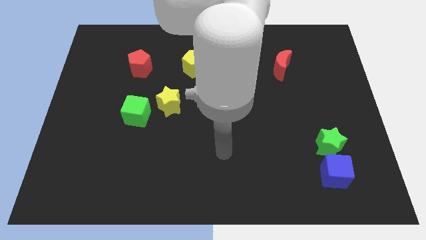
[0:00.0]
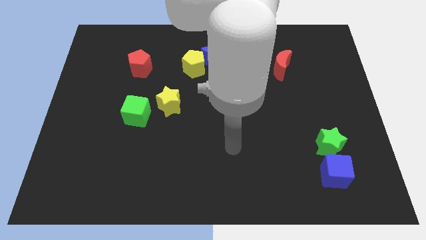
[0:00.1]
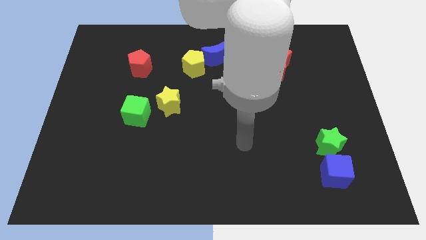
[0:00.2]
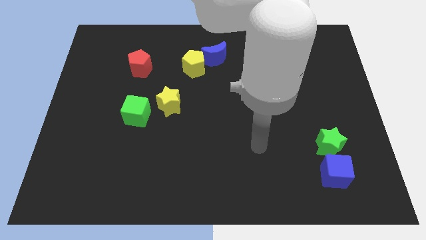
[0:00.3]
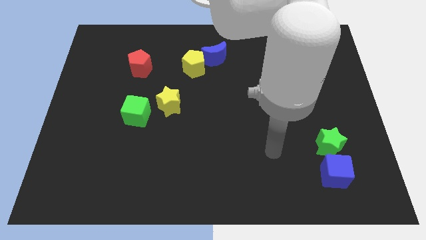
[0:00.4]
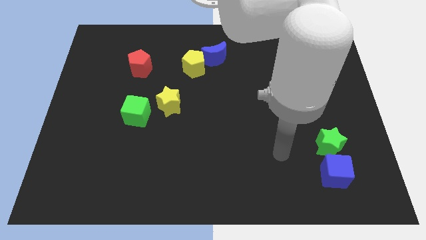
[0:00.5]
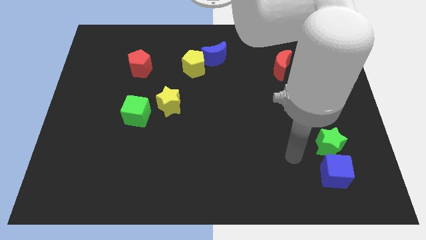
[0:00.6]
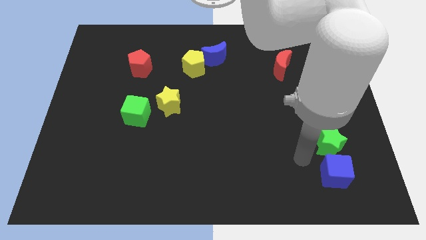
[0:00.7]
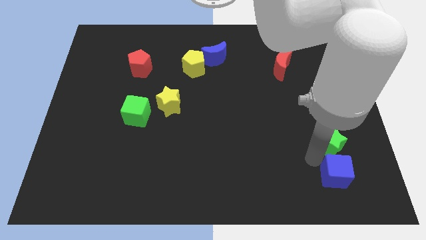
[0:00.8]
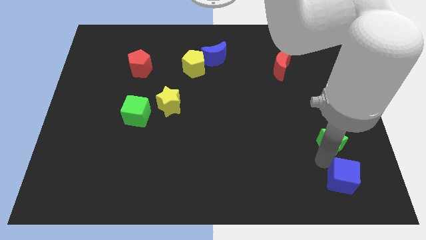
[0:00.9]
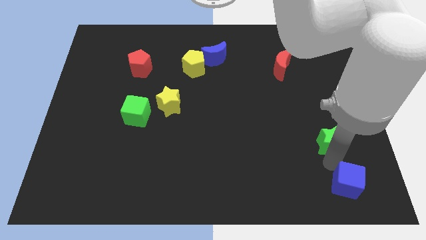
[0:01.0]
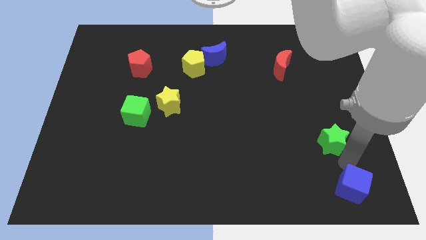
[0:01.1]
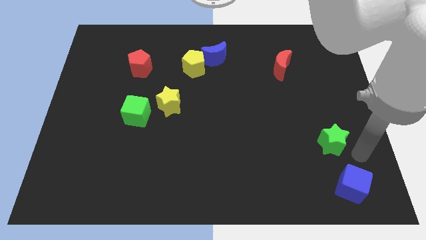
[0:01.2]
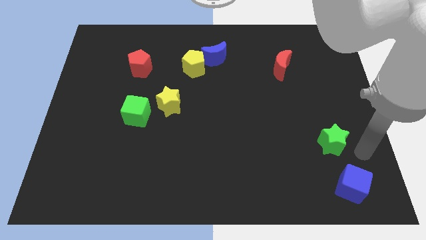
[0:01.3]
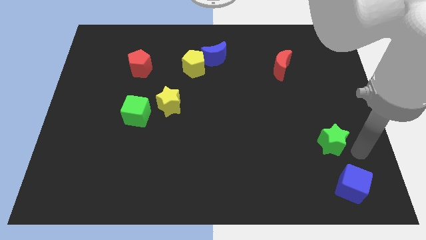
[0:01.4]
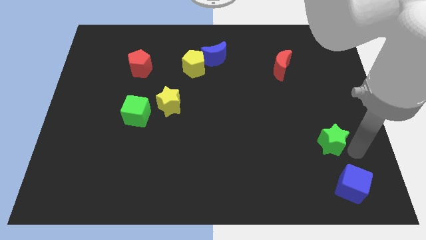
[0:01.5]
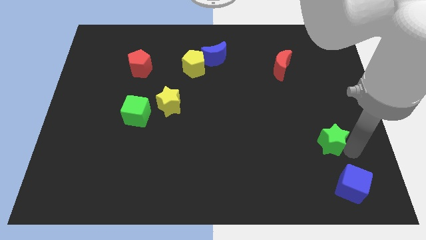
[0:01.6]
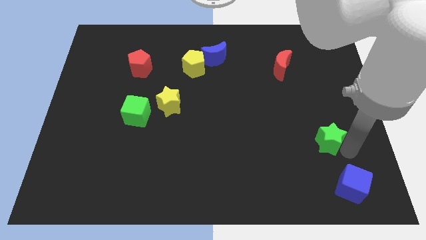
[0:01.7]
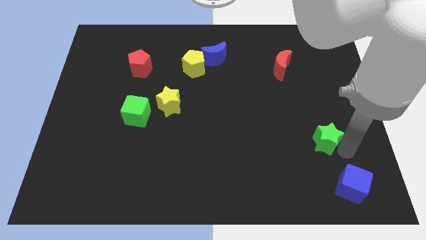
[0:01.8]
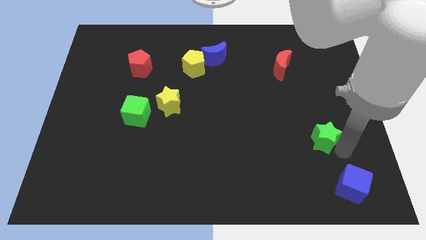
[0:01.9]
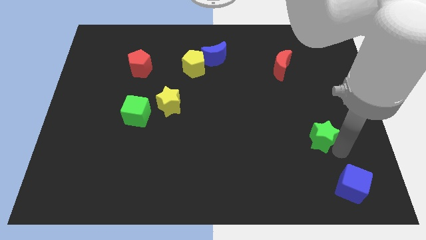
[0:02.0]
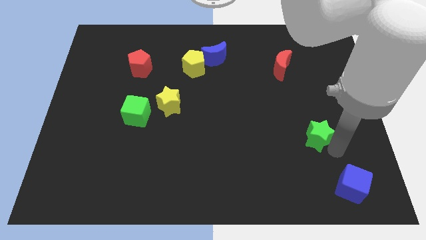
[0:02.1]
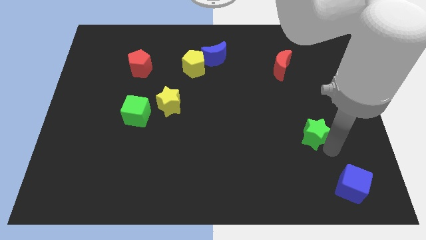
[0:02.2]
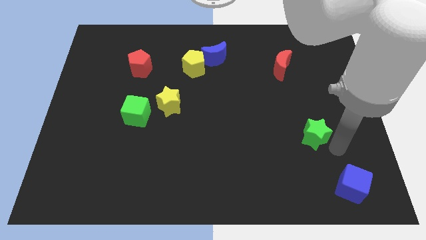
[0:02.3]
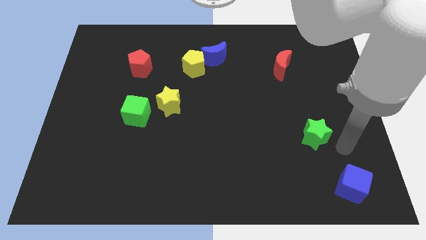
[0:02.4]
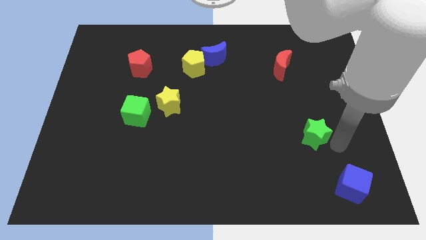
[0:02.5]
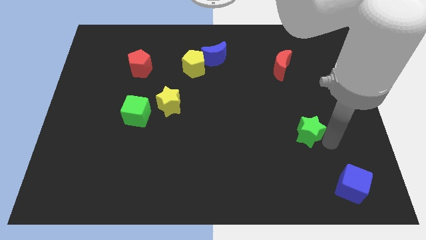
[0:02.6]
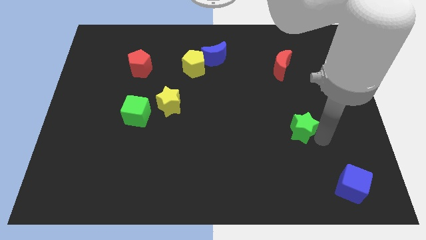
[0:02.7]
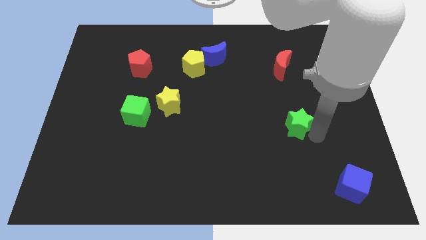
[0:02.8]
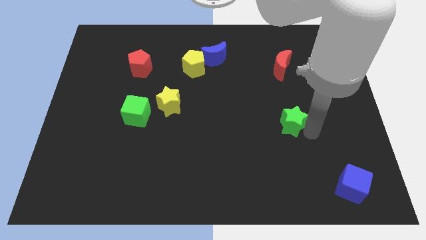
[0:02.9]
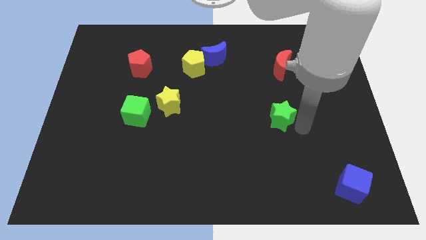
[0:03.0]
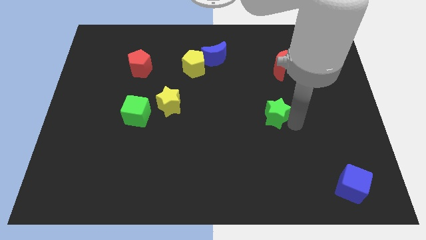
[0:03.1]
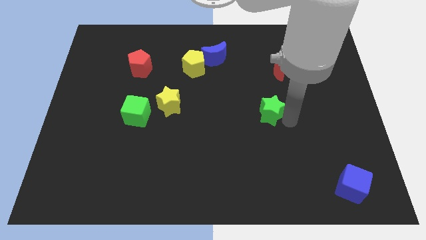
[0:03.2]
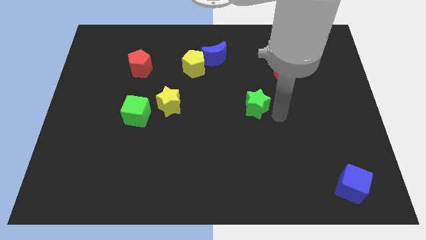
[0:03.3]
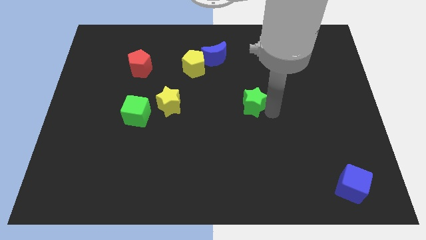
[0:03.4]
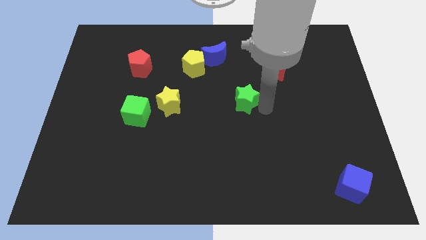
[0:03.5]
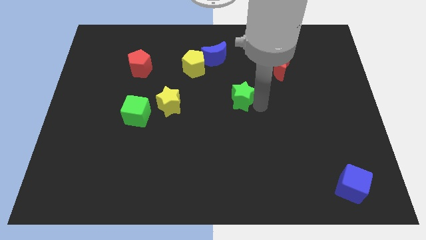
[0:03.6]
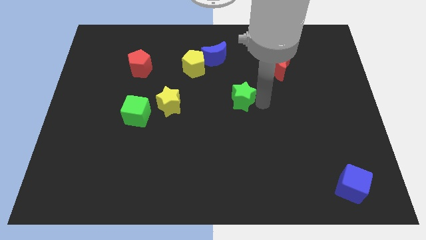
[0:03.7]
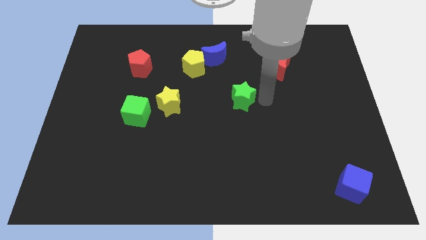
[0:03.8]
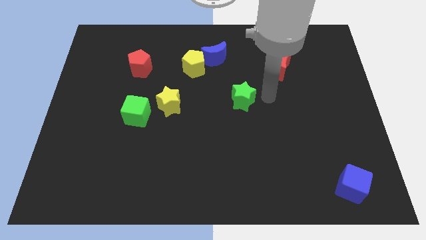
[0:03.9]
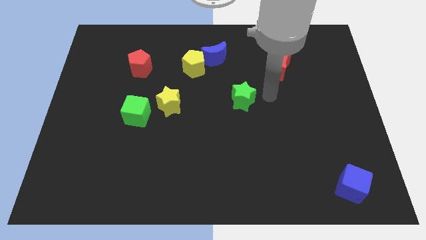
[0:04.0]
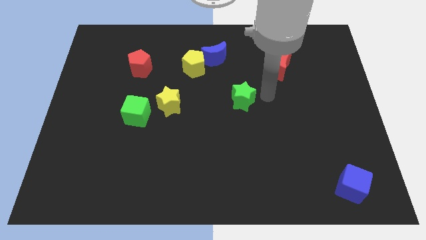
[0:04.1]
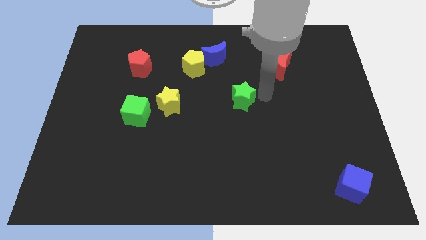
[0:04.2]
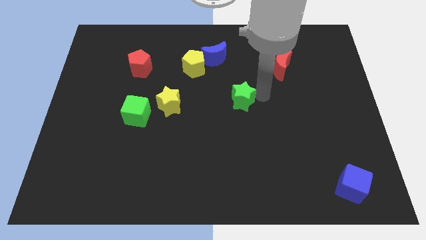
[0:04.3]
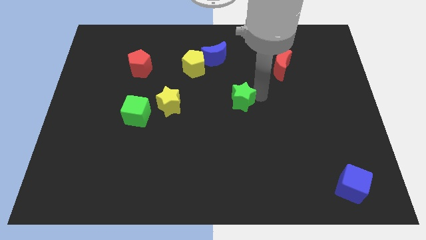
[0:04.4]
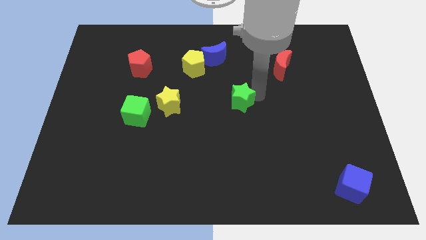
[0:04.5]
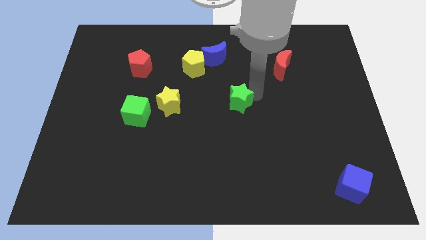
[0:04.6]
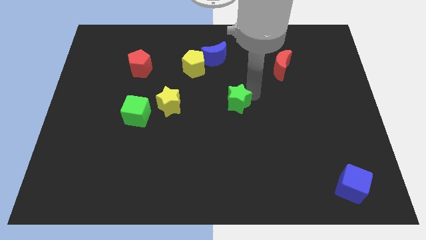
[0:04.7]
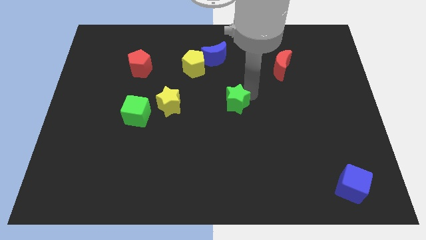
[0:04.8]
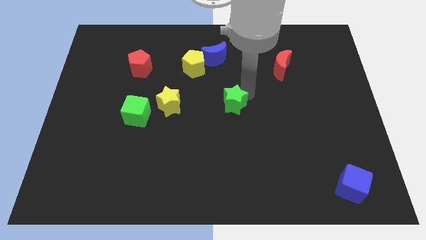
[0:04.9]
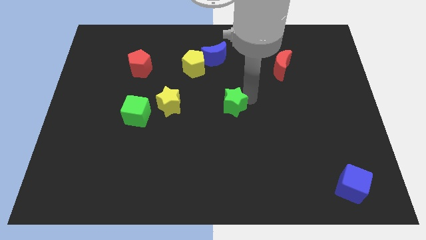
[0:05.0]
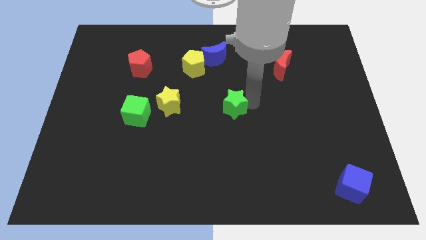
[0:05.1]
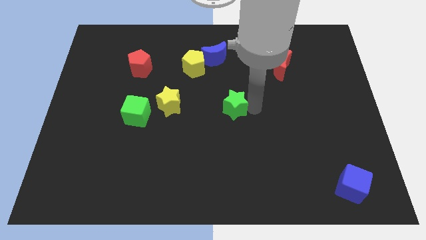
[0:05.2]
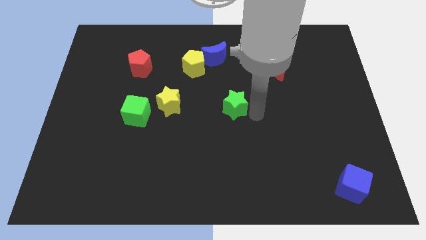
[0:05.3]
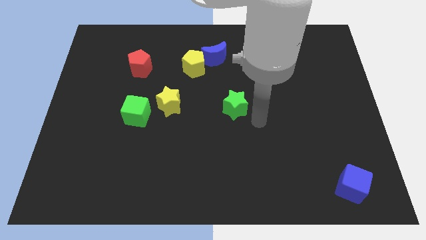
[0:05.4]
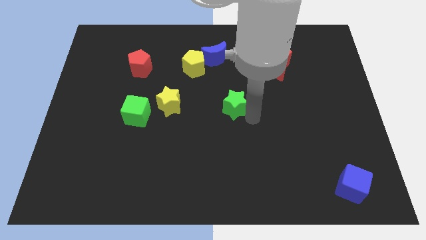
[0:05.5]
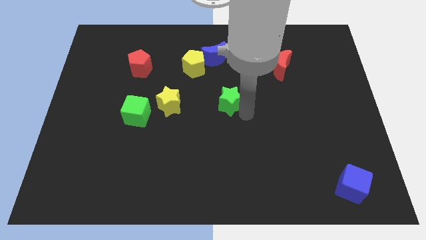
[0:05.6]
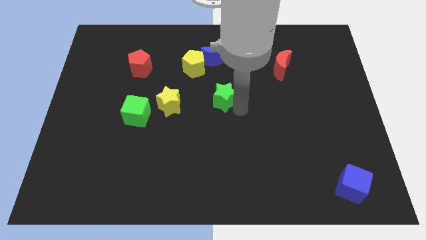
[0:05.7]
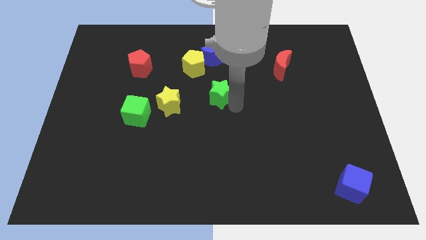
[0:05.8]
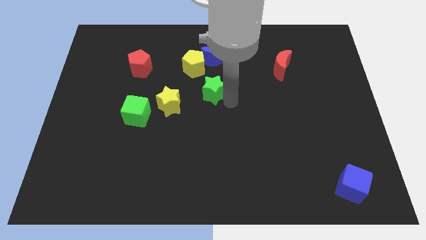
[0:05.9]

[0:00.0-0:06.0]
slide the green star to the top right side of the yellow star

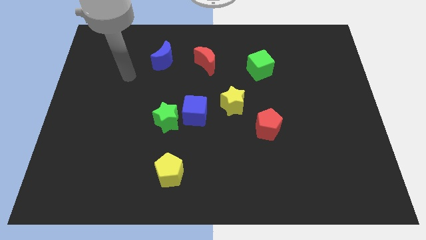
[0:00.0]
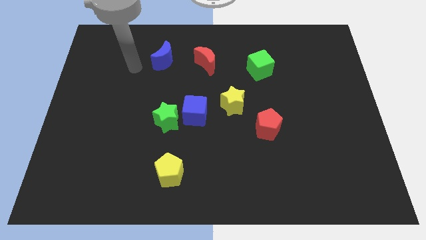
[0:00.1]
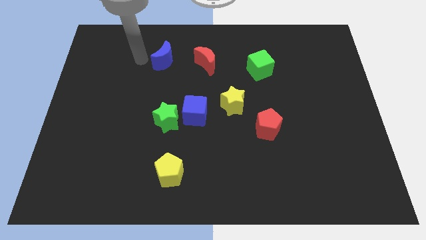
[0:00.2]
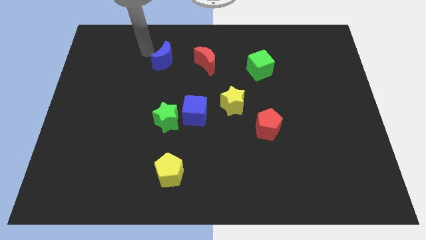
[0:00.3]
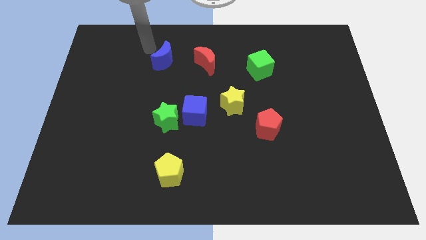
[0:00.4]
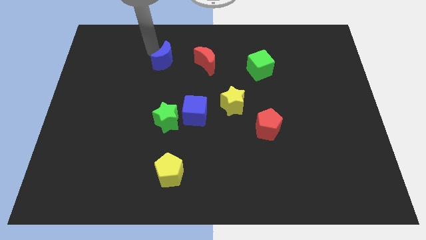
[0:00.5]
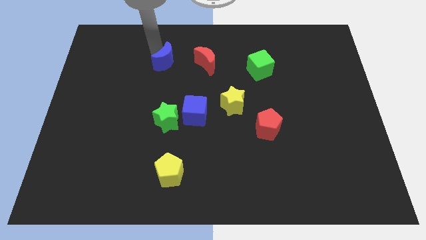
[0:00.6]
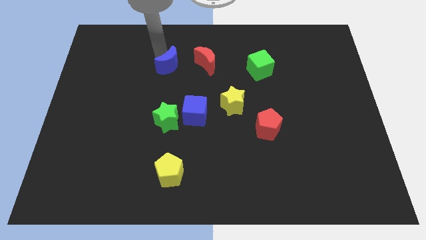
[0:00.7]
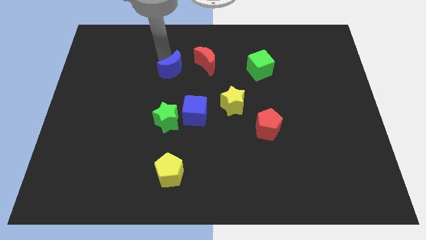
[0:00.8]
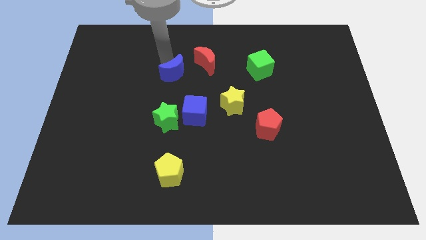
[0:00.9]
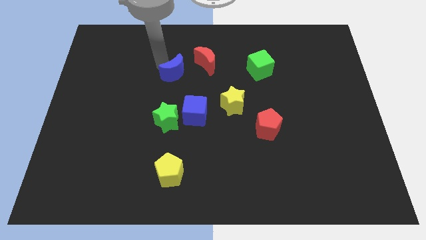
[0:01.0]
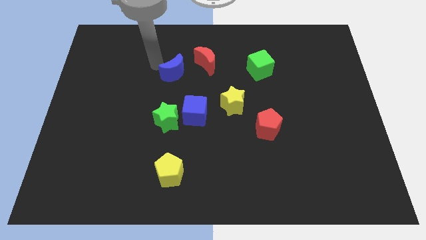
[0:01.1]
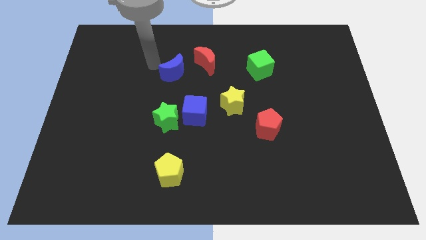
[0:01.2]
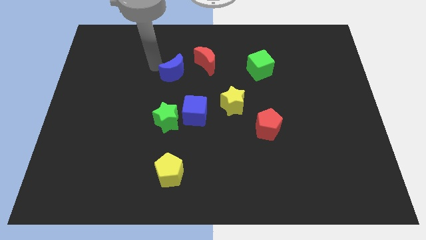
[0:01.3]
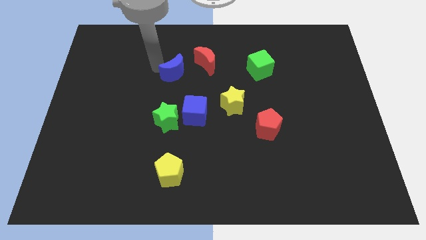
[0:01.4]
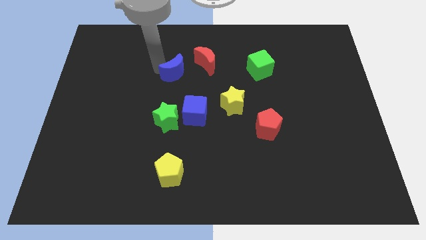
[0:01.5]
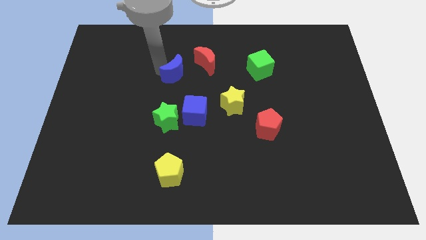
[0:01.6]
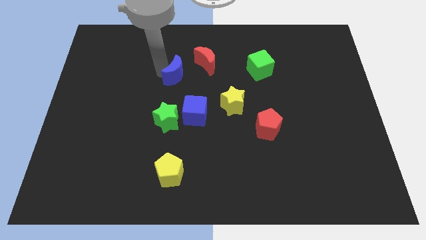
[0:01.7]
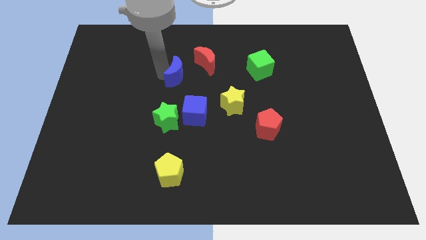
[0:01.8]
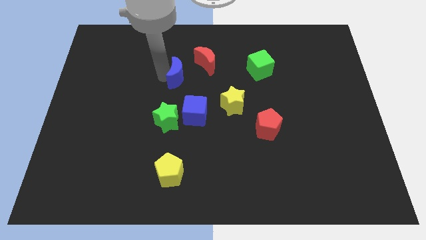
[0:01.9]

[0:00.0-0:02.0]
slide the blue moon to the top of the blue cube
